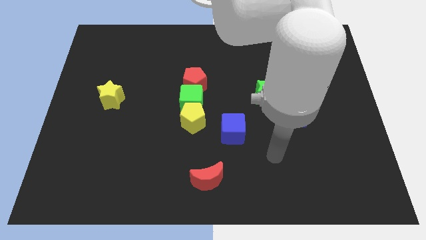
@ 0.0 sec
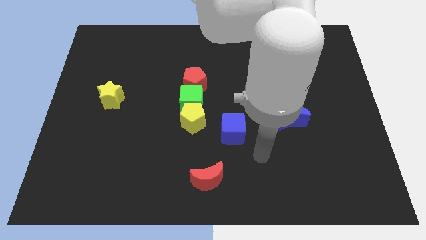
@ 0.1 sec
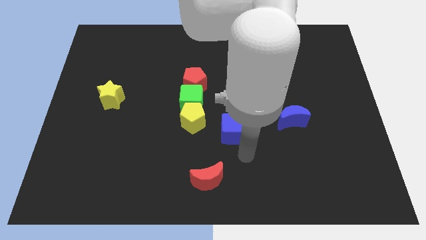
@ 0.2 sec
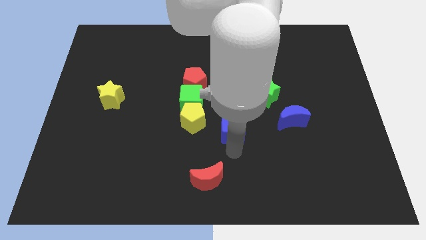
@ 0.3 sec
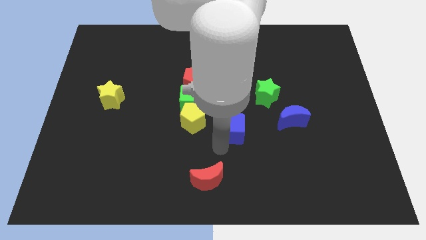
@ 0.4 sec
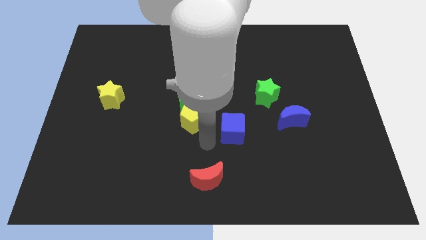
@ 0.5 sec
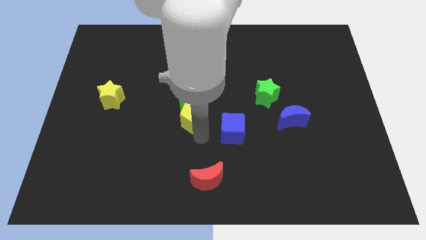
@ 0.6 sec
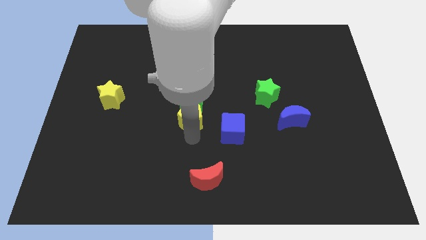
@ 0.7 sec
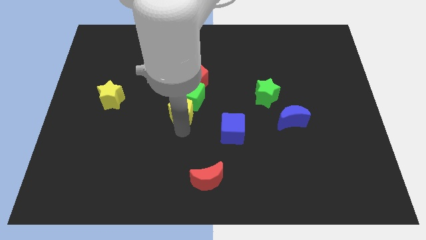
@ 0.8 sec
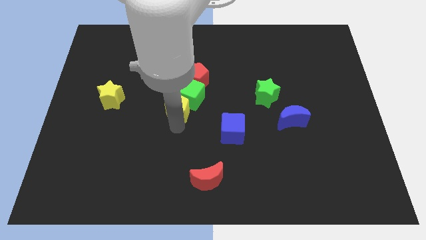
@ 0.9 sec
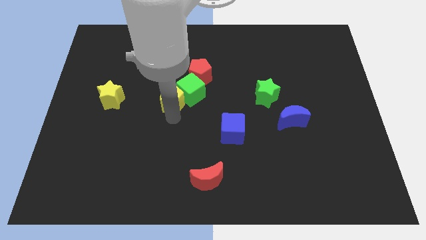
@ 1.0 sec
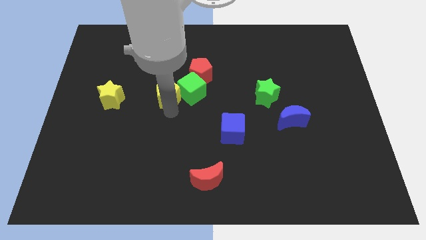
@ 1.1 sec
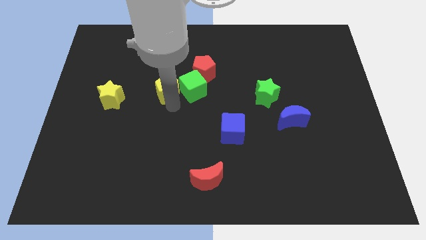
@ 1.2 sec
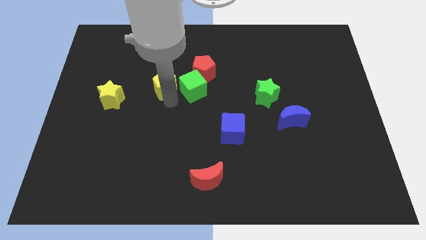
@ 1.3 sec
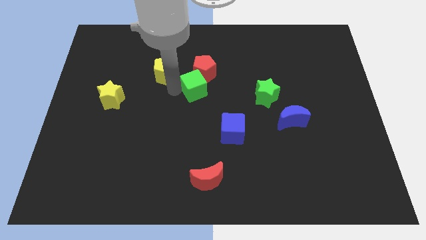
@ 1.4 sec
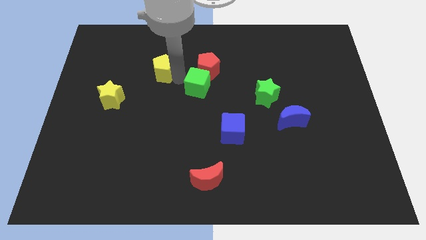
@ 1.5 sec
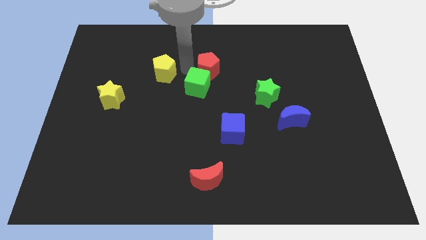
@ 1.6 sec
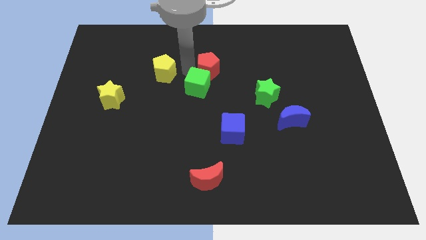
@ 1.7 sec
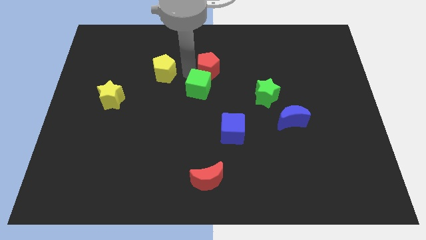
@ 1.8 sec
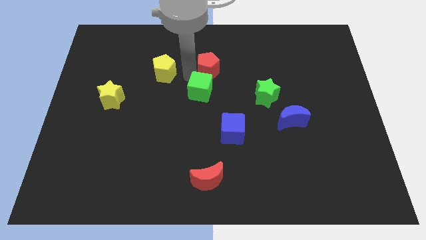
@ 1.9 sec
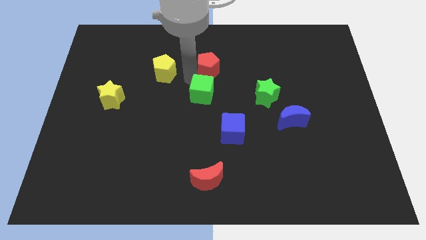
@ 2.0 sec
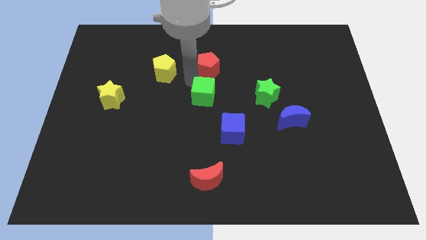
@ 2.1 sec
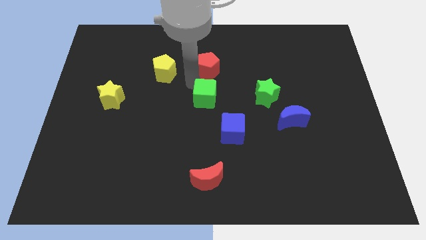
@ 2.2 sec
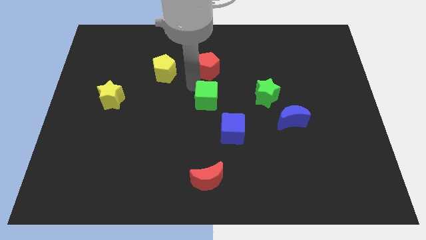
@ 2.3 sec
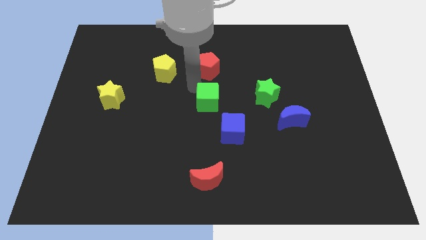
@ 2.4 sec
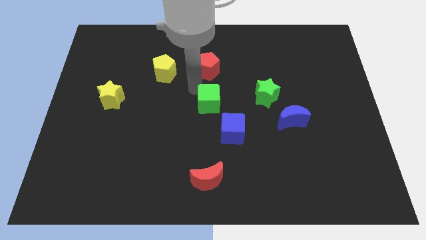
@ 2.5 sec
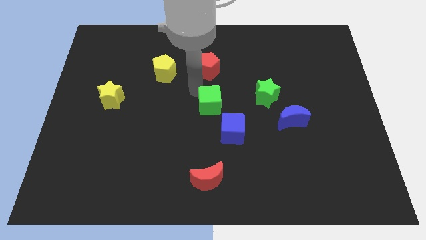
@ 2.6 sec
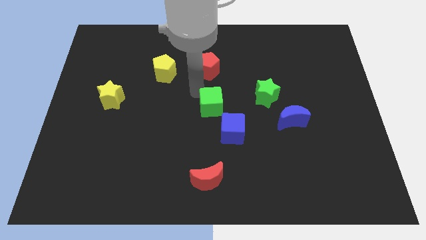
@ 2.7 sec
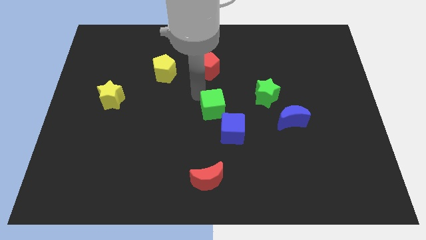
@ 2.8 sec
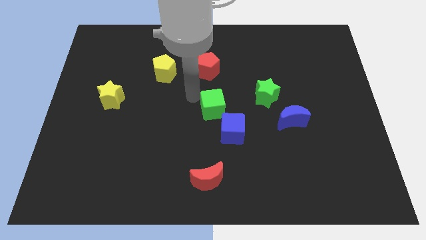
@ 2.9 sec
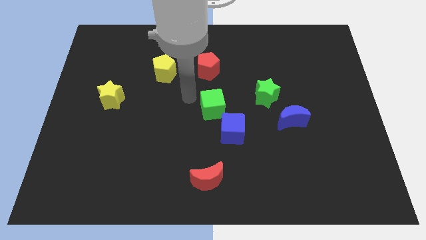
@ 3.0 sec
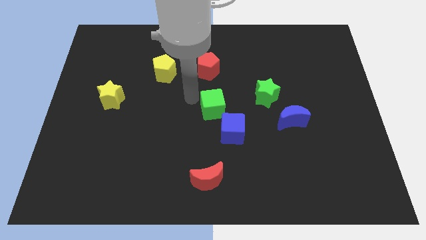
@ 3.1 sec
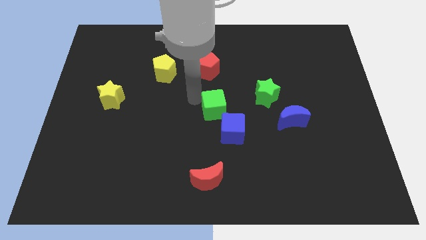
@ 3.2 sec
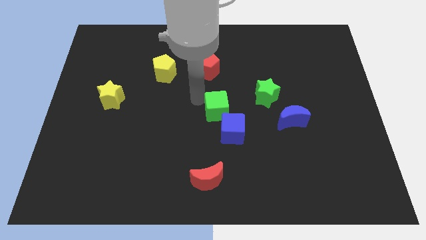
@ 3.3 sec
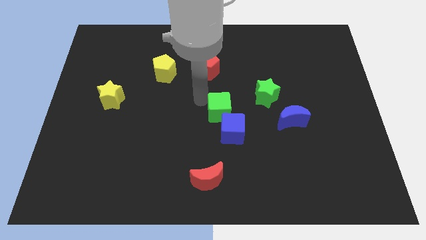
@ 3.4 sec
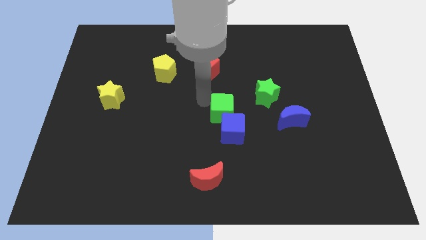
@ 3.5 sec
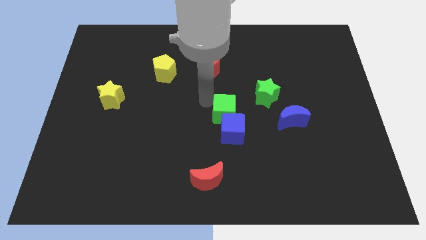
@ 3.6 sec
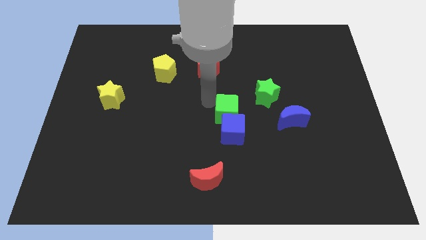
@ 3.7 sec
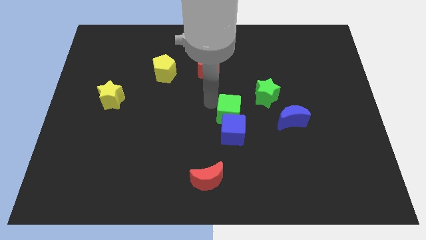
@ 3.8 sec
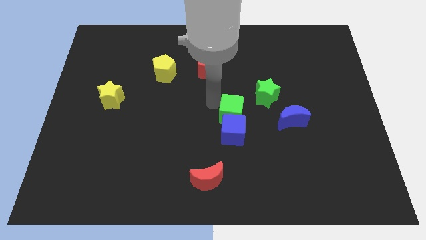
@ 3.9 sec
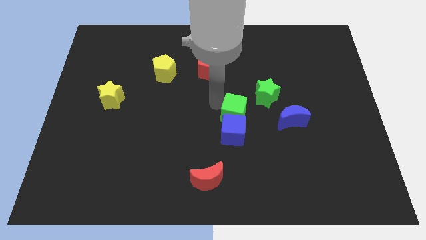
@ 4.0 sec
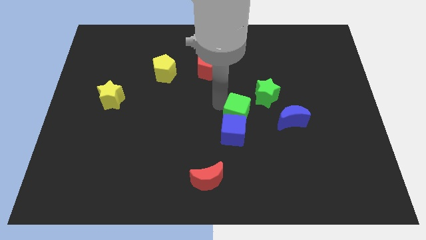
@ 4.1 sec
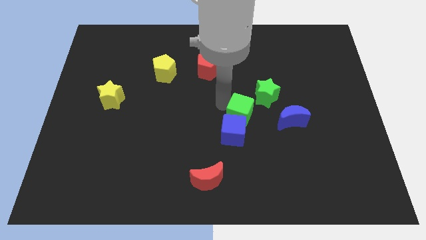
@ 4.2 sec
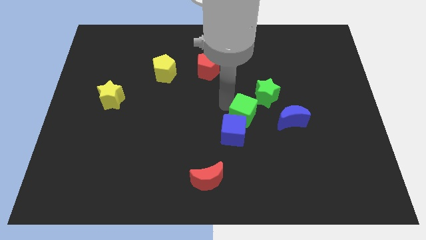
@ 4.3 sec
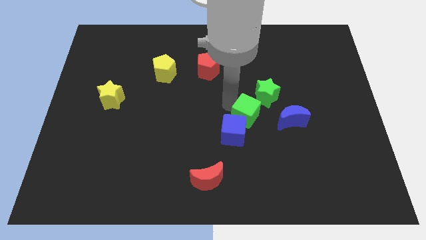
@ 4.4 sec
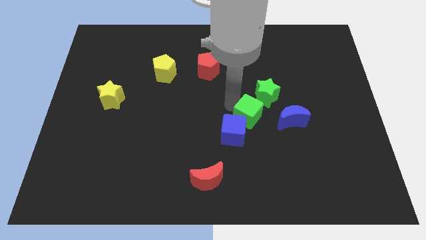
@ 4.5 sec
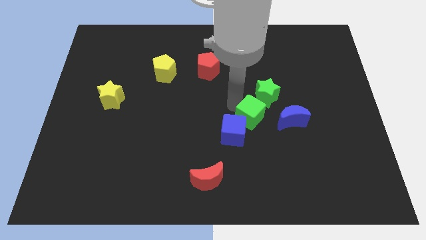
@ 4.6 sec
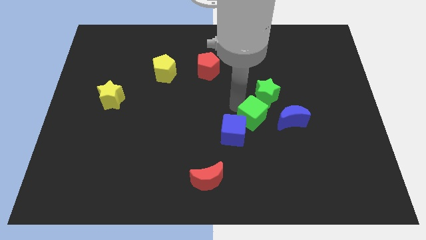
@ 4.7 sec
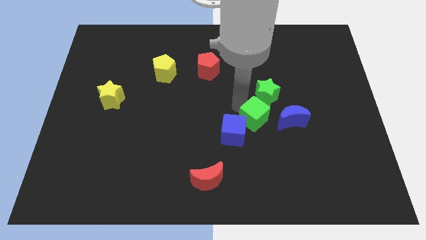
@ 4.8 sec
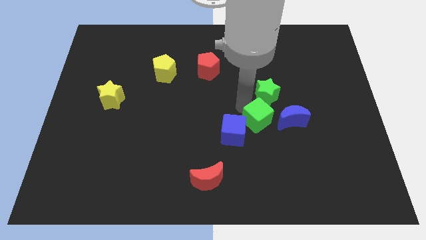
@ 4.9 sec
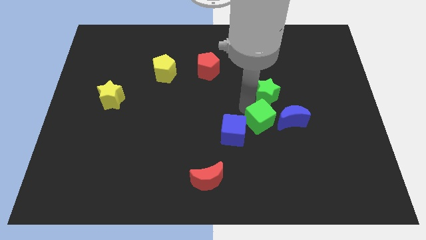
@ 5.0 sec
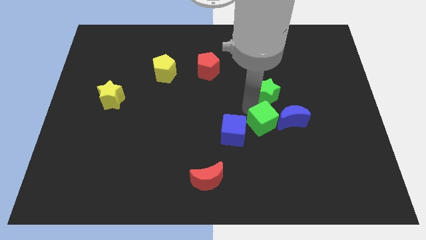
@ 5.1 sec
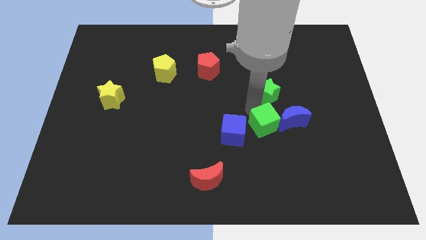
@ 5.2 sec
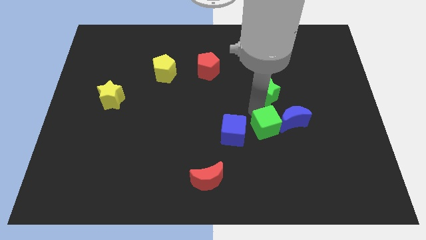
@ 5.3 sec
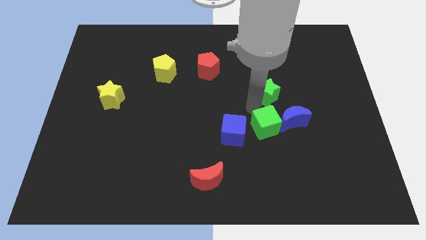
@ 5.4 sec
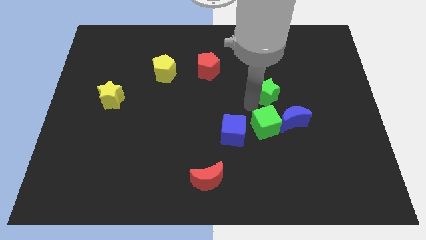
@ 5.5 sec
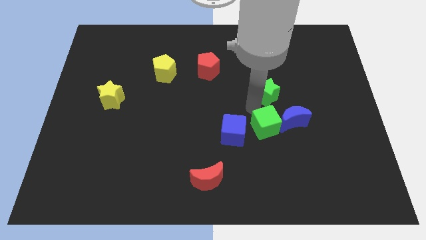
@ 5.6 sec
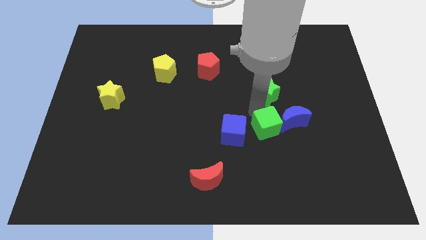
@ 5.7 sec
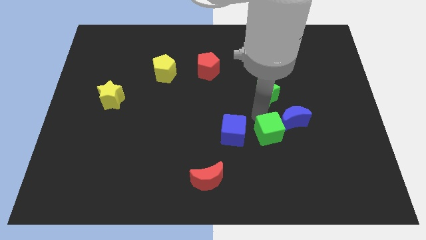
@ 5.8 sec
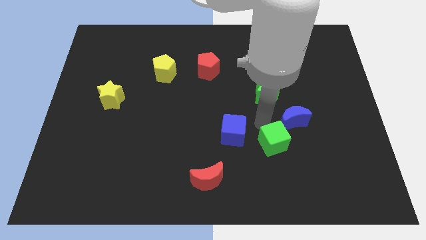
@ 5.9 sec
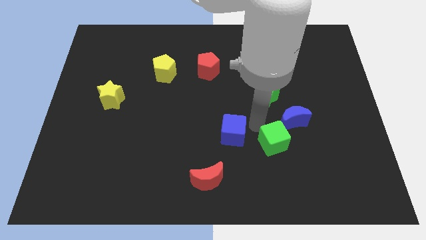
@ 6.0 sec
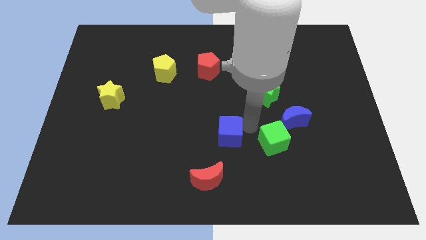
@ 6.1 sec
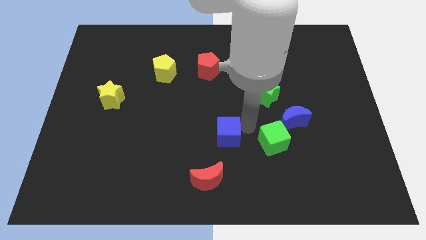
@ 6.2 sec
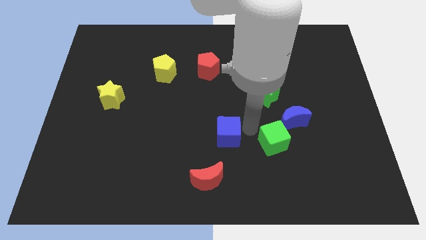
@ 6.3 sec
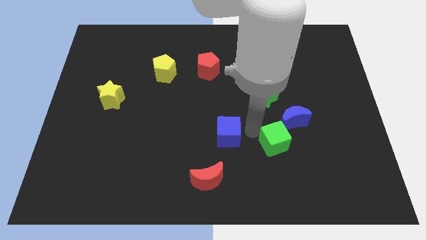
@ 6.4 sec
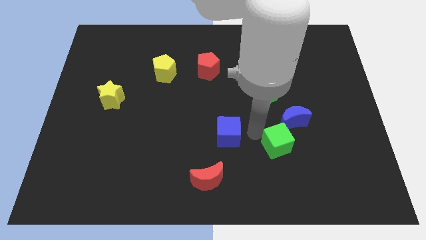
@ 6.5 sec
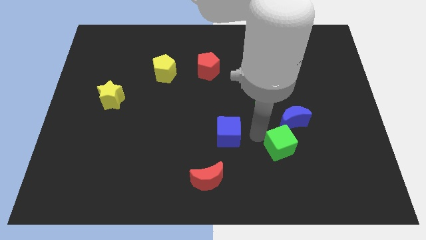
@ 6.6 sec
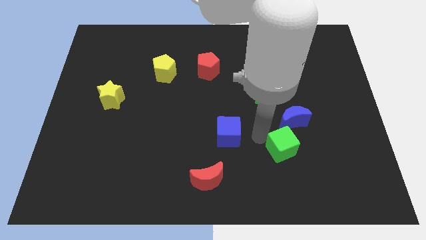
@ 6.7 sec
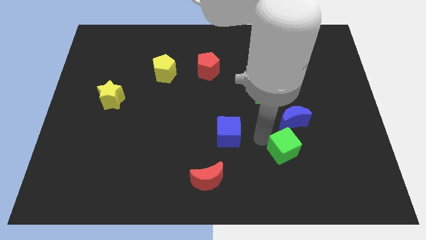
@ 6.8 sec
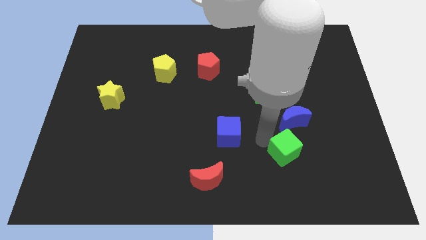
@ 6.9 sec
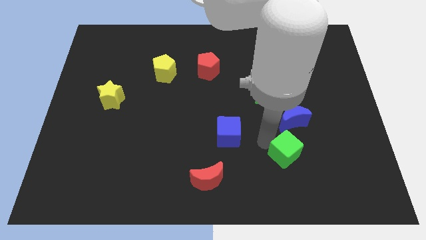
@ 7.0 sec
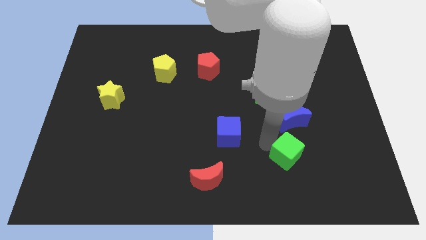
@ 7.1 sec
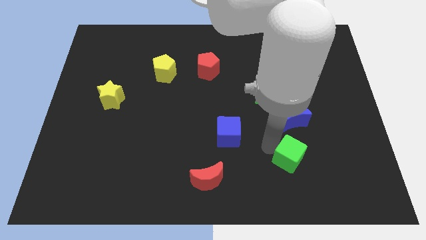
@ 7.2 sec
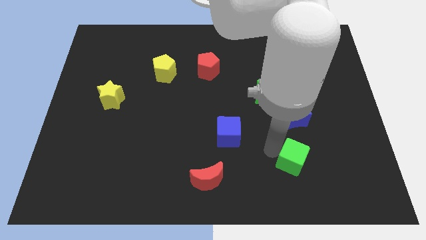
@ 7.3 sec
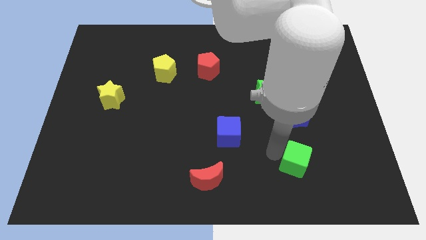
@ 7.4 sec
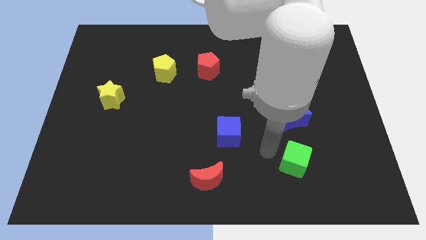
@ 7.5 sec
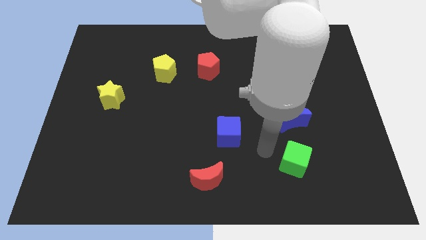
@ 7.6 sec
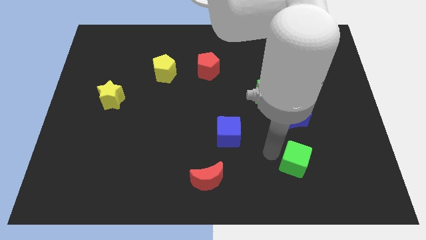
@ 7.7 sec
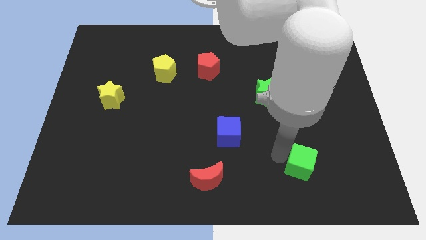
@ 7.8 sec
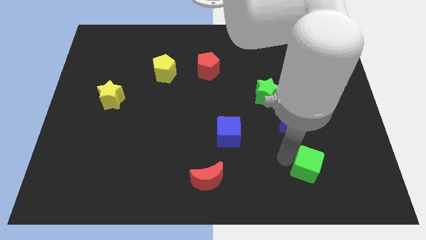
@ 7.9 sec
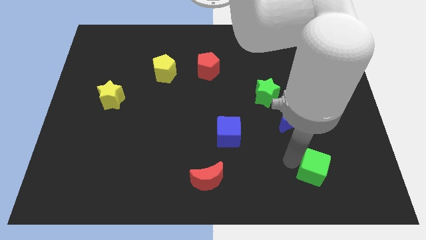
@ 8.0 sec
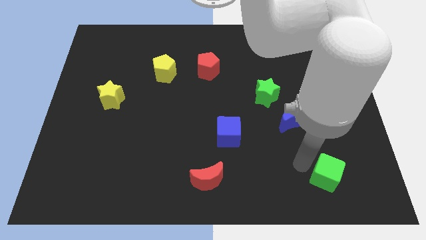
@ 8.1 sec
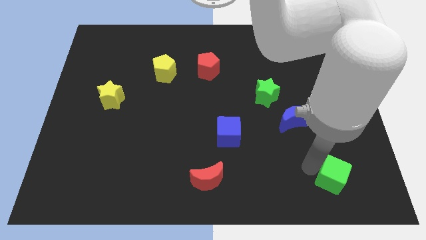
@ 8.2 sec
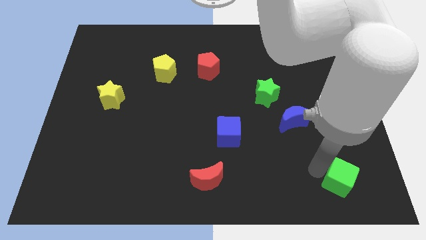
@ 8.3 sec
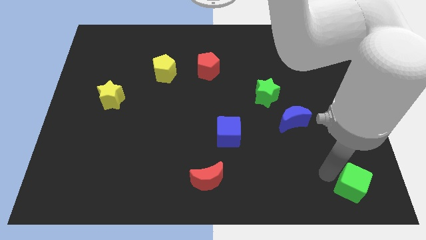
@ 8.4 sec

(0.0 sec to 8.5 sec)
slide the green cube to the lower right corner
